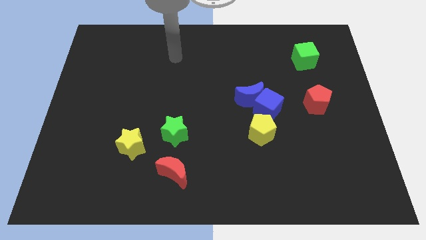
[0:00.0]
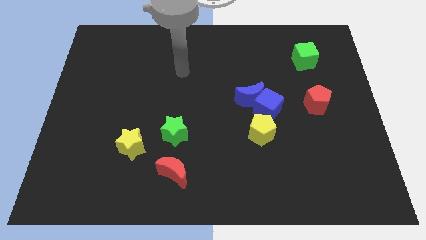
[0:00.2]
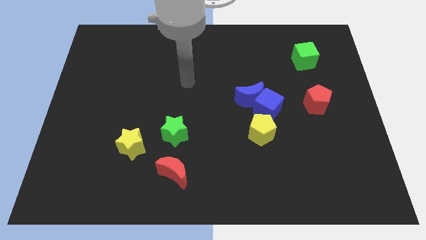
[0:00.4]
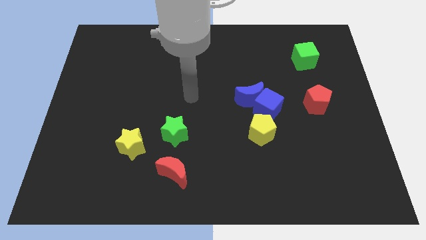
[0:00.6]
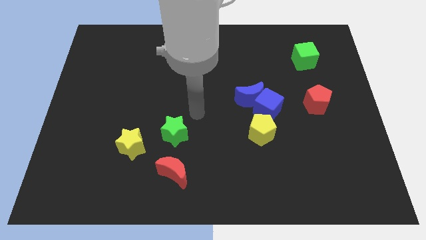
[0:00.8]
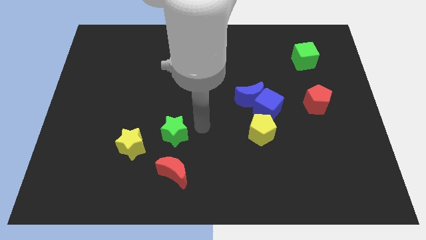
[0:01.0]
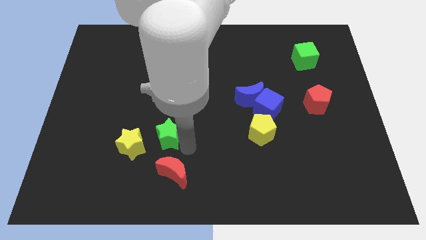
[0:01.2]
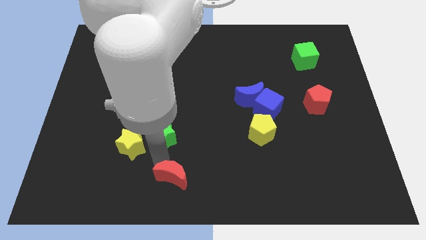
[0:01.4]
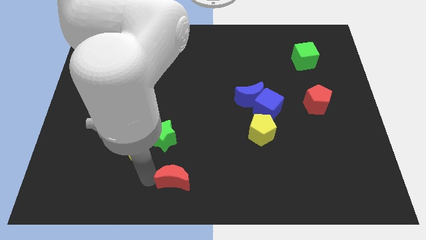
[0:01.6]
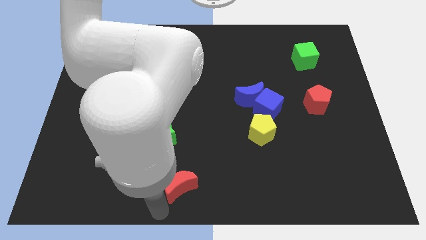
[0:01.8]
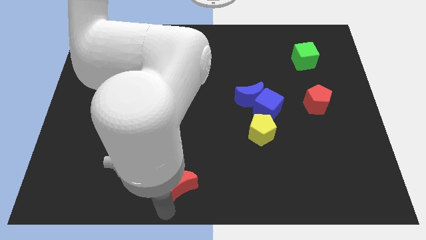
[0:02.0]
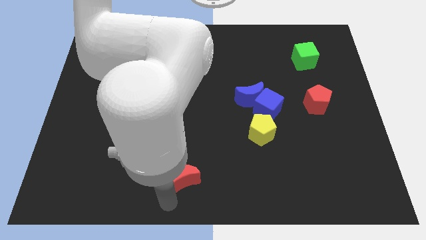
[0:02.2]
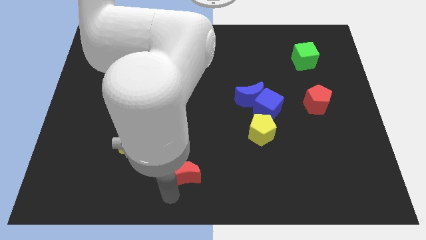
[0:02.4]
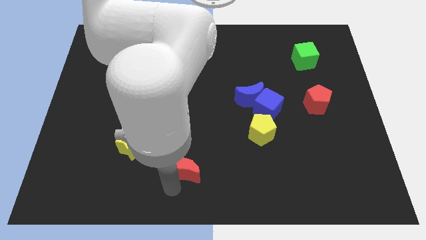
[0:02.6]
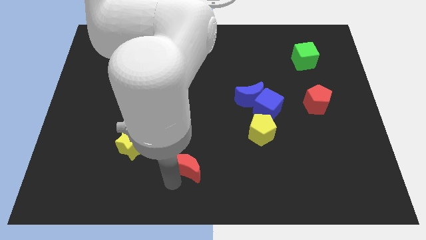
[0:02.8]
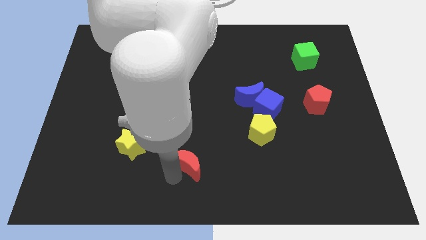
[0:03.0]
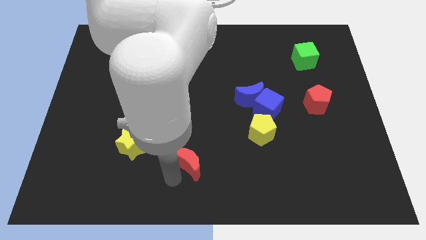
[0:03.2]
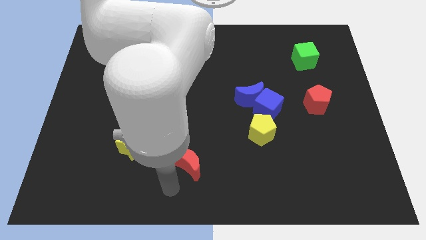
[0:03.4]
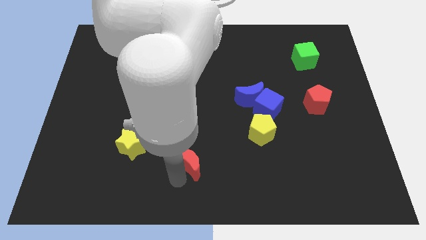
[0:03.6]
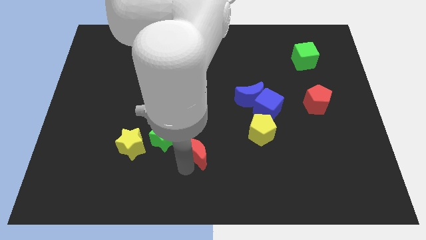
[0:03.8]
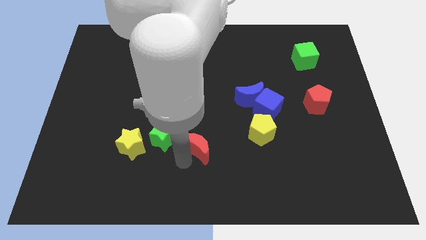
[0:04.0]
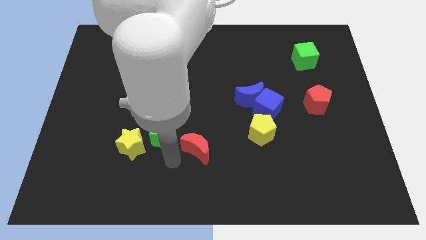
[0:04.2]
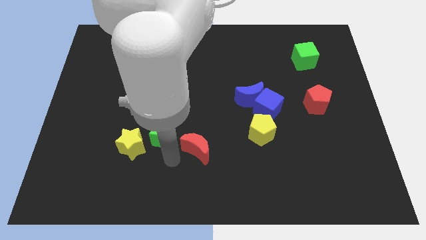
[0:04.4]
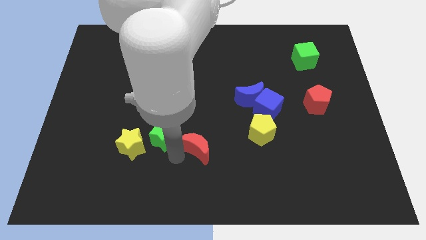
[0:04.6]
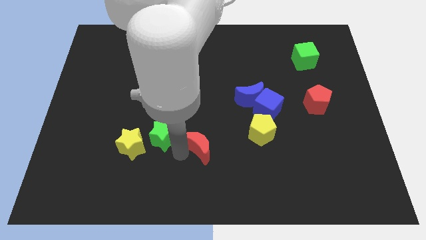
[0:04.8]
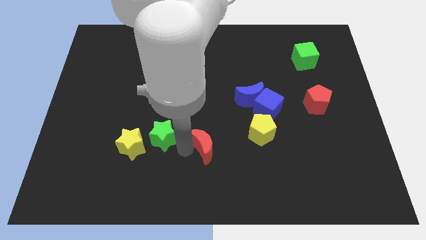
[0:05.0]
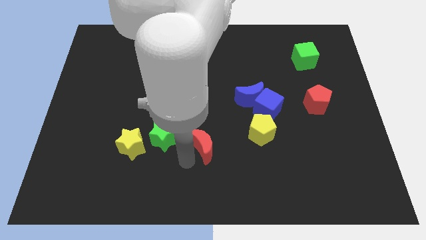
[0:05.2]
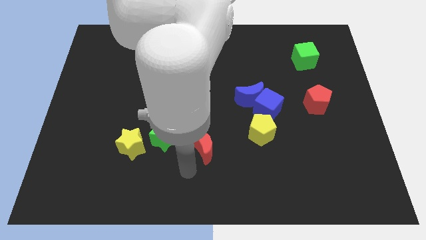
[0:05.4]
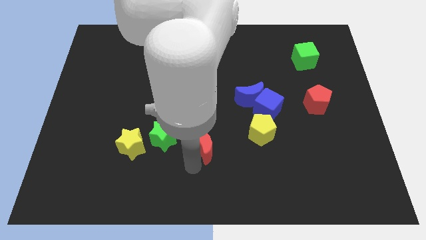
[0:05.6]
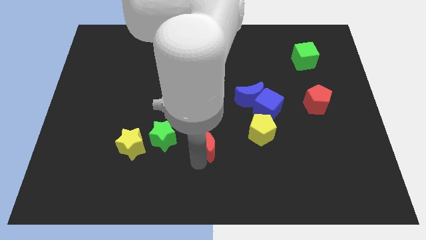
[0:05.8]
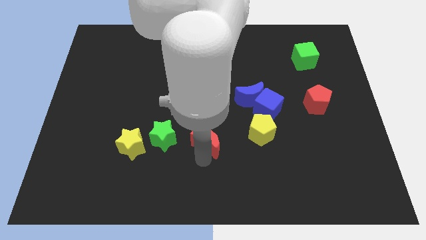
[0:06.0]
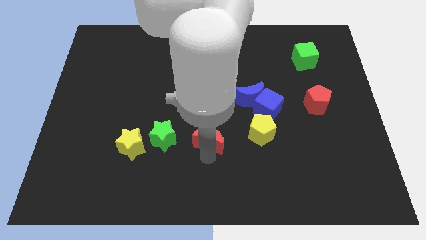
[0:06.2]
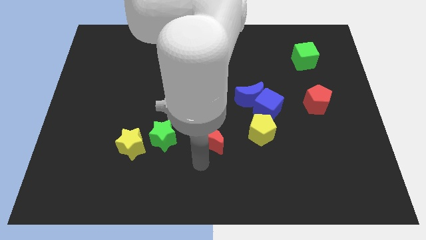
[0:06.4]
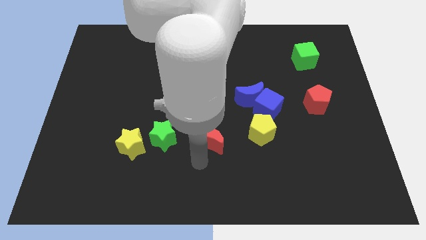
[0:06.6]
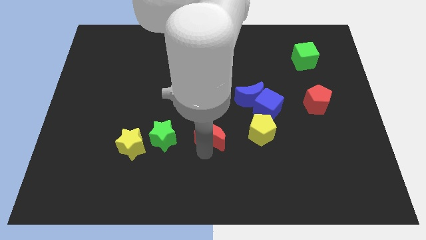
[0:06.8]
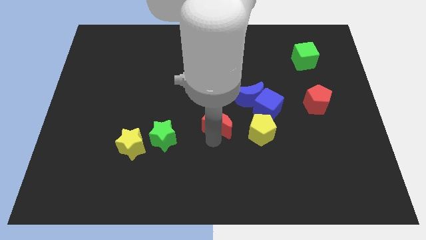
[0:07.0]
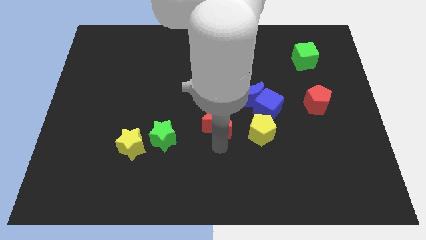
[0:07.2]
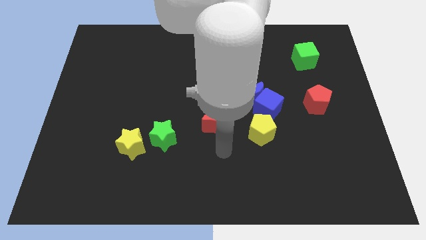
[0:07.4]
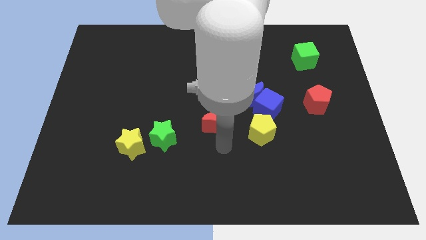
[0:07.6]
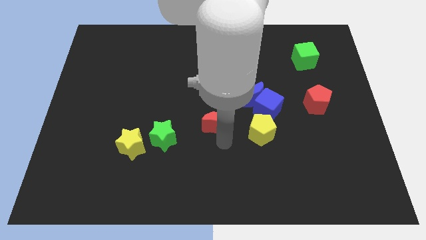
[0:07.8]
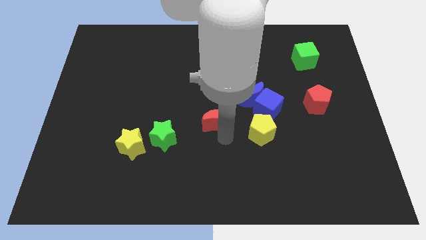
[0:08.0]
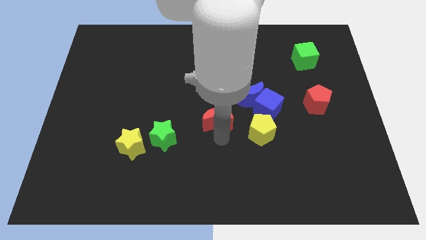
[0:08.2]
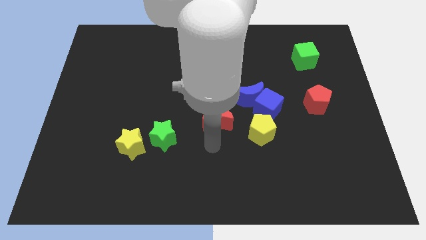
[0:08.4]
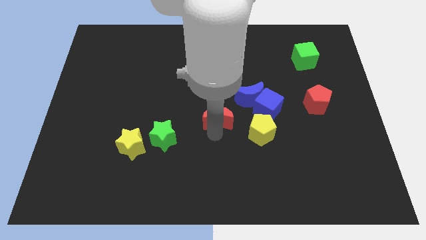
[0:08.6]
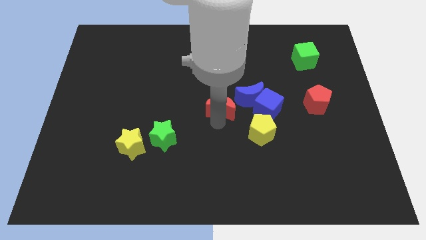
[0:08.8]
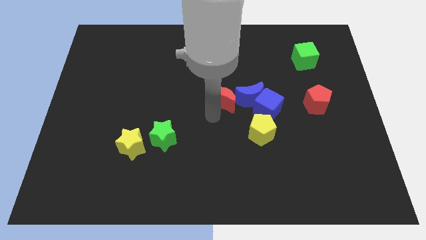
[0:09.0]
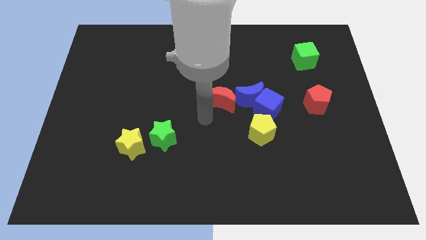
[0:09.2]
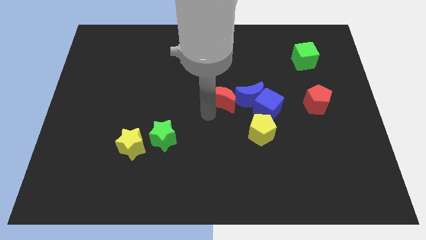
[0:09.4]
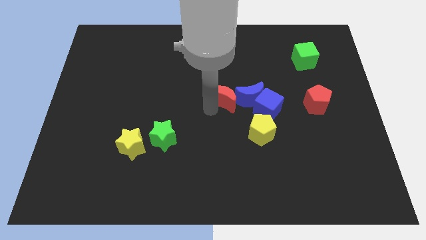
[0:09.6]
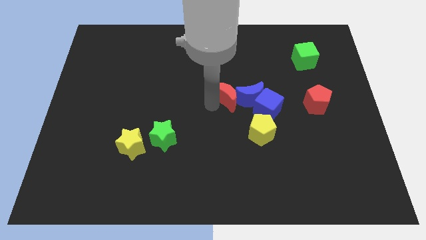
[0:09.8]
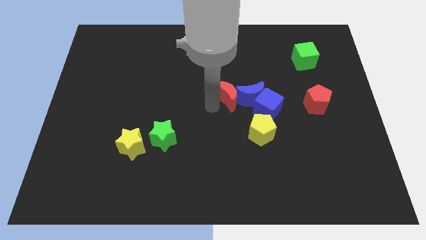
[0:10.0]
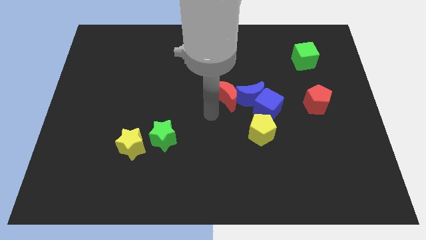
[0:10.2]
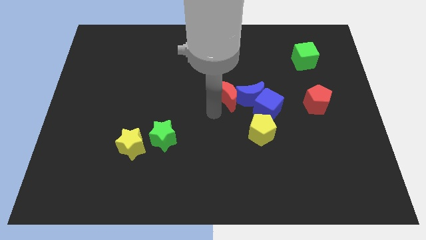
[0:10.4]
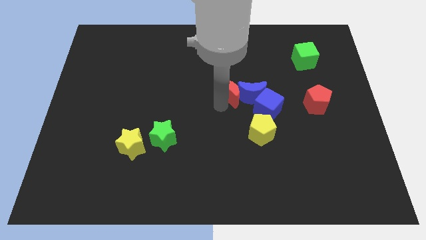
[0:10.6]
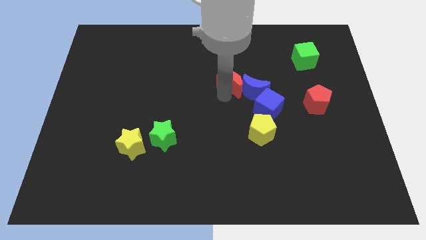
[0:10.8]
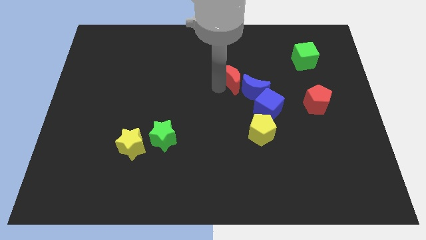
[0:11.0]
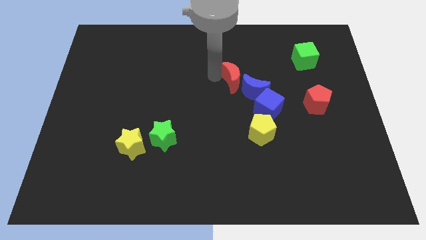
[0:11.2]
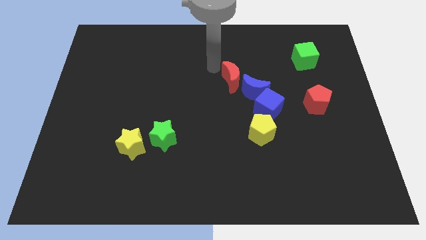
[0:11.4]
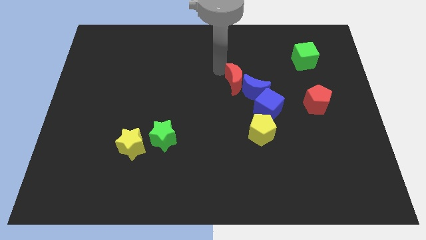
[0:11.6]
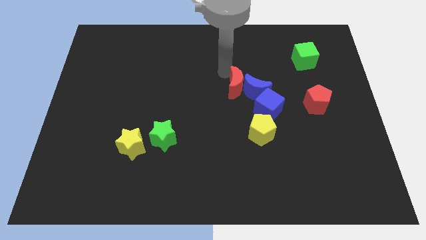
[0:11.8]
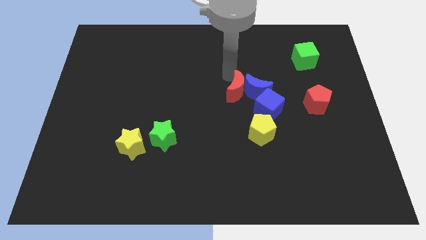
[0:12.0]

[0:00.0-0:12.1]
put the red moon to the top side of the yellow pentagon
